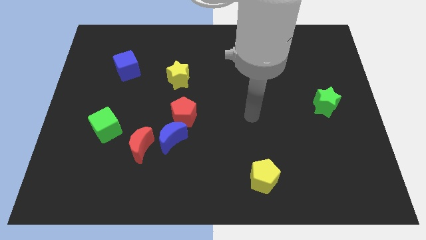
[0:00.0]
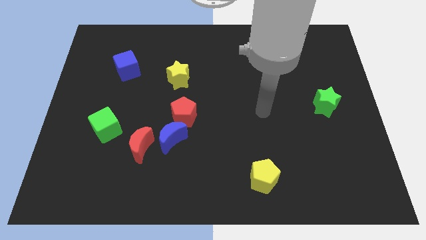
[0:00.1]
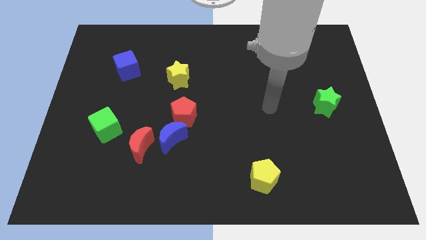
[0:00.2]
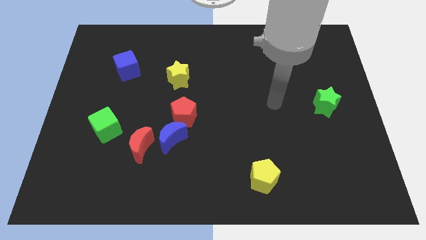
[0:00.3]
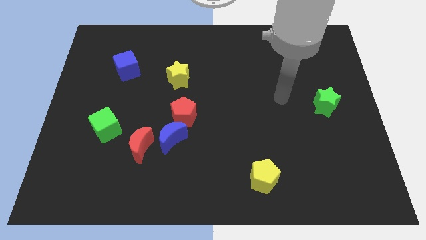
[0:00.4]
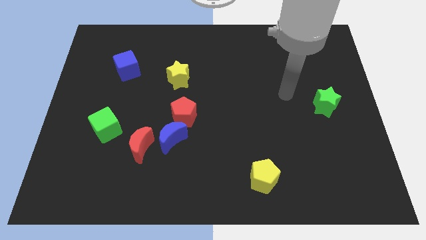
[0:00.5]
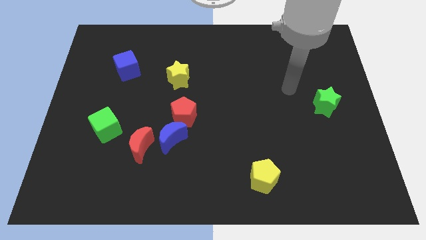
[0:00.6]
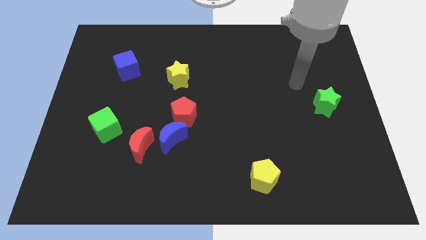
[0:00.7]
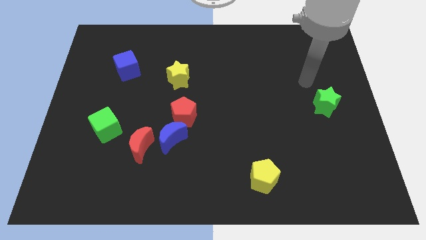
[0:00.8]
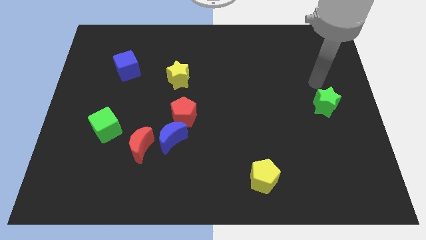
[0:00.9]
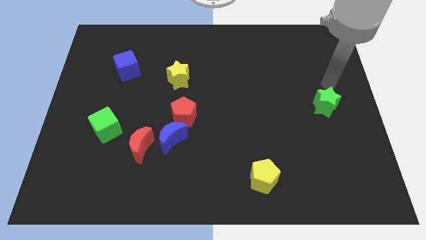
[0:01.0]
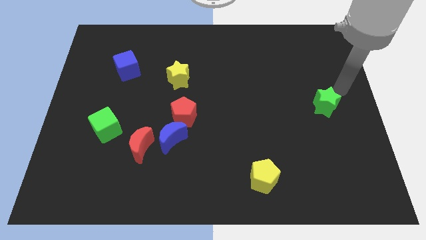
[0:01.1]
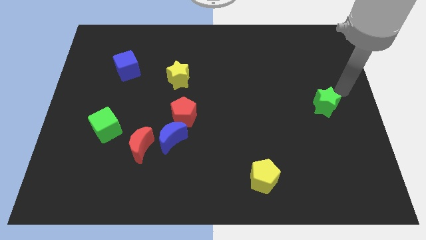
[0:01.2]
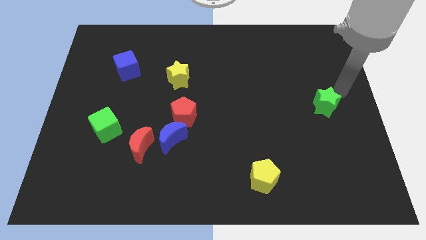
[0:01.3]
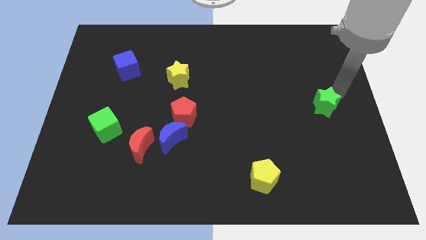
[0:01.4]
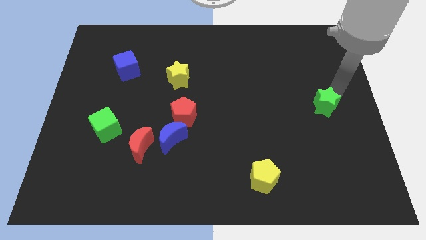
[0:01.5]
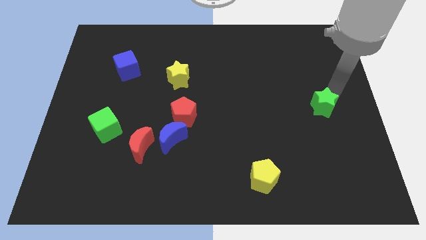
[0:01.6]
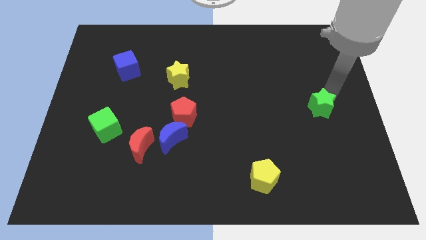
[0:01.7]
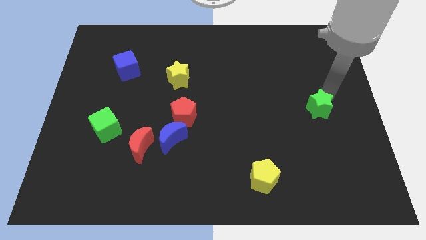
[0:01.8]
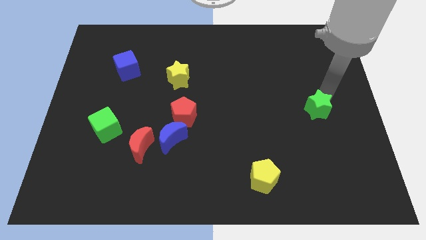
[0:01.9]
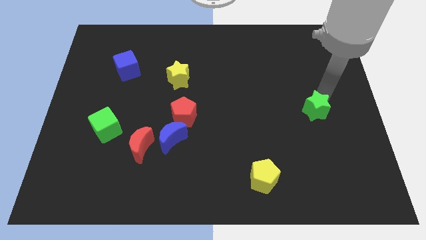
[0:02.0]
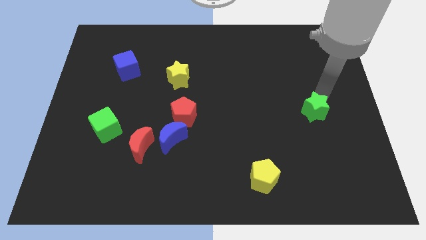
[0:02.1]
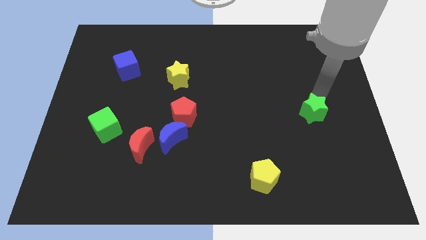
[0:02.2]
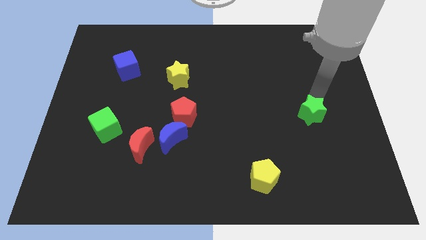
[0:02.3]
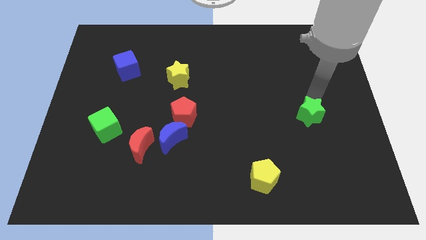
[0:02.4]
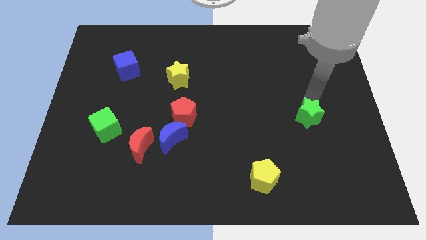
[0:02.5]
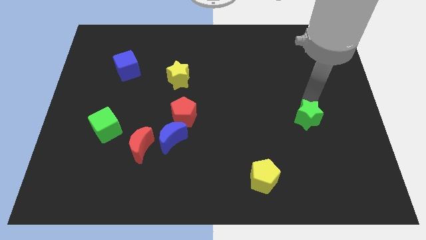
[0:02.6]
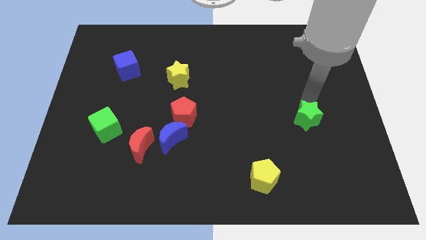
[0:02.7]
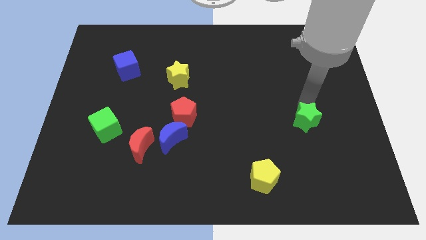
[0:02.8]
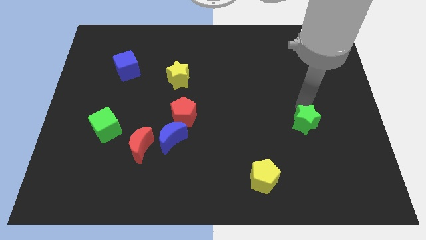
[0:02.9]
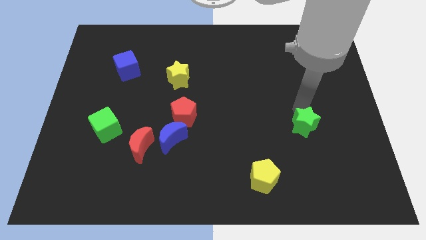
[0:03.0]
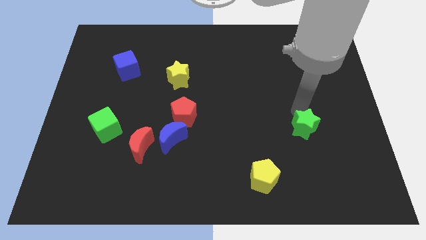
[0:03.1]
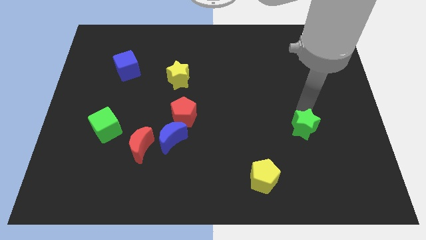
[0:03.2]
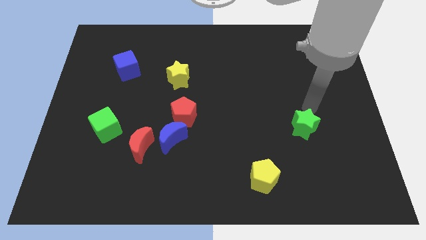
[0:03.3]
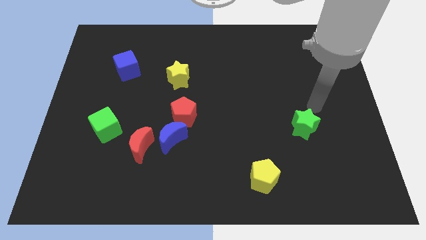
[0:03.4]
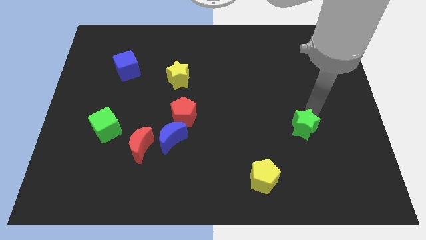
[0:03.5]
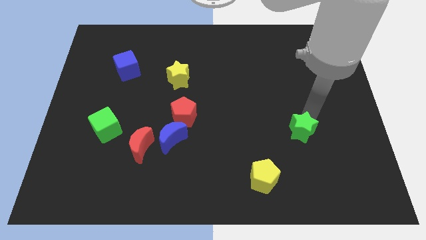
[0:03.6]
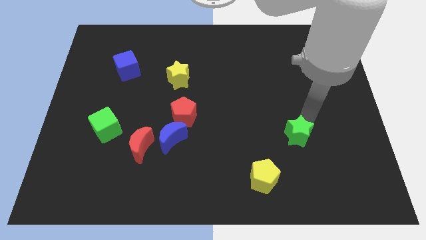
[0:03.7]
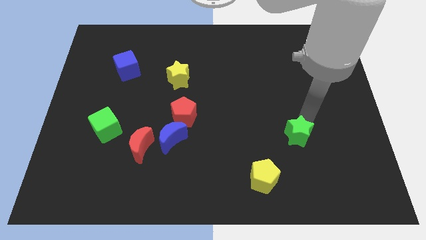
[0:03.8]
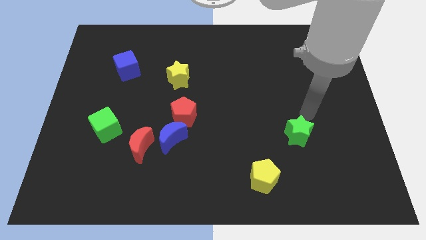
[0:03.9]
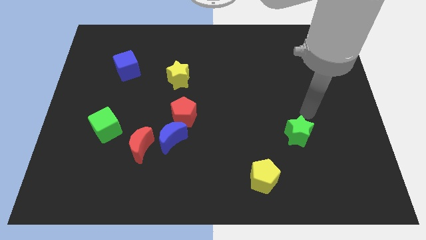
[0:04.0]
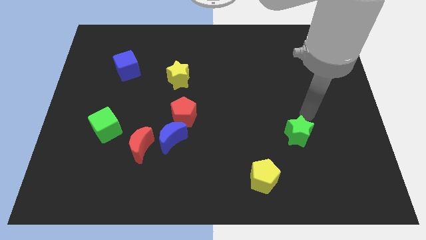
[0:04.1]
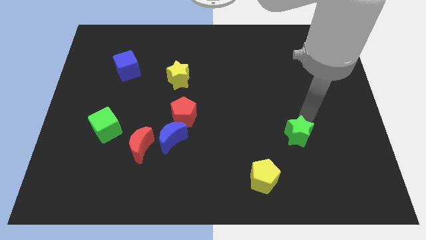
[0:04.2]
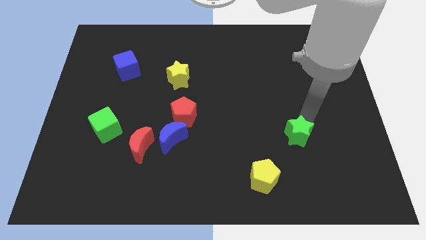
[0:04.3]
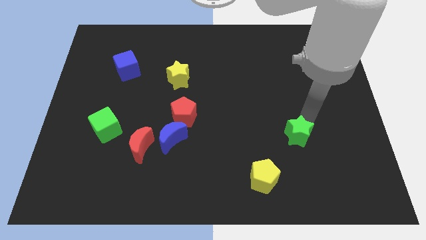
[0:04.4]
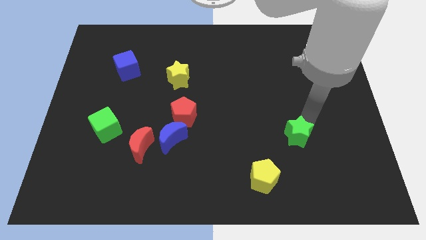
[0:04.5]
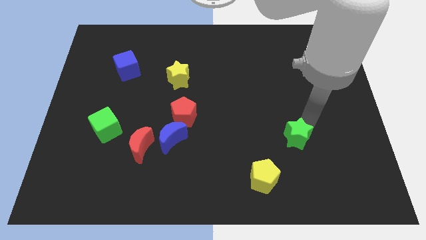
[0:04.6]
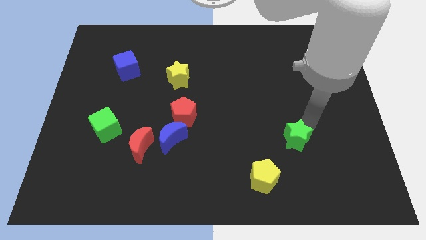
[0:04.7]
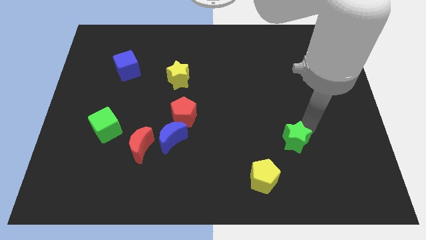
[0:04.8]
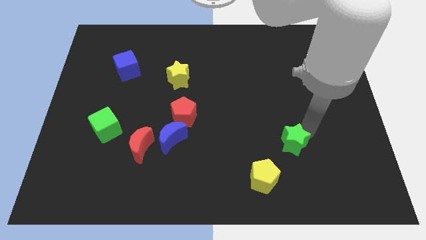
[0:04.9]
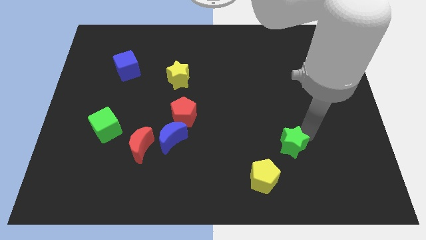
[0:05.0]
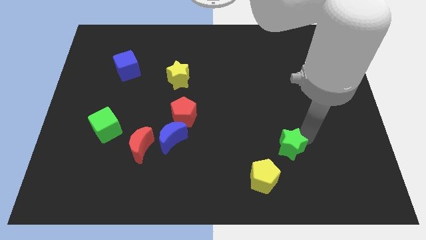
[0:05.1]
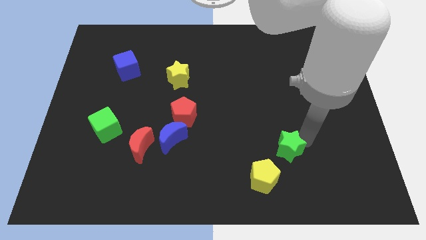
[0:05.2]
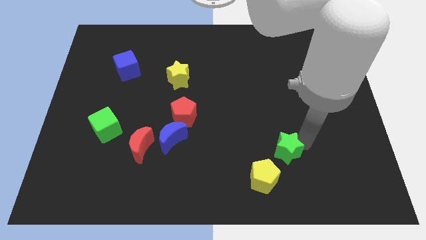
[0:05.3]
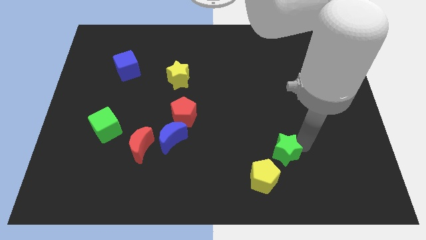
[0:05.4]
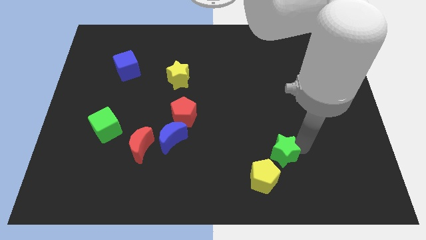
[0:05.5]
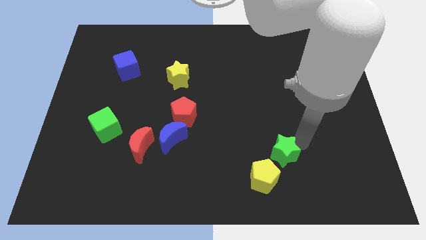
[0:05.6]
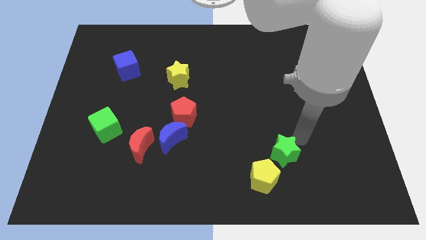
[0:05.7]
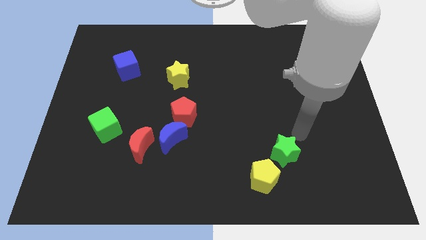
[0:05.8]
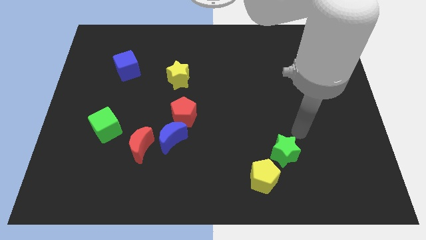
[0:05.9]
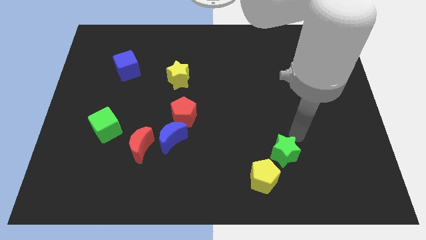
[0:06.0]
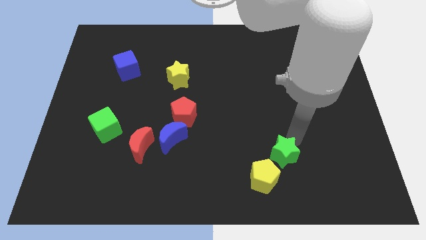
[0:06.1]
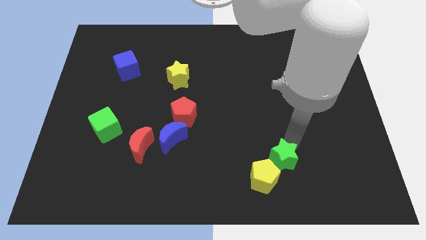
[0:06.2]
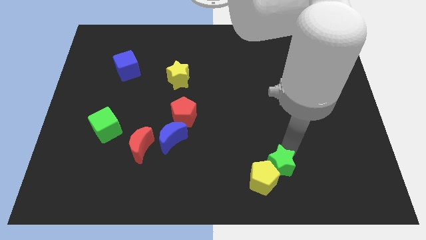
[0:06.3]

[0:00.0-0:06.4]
slide the green star towards the yellow pentagon
